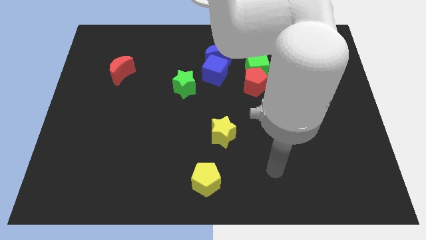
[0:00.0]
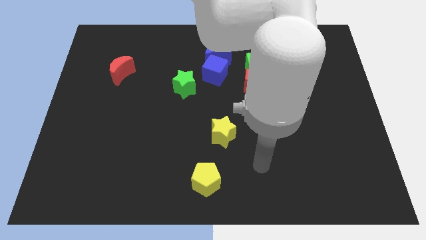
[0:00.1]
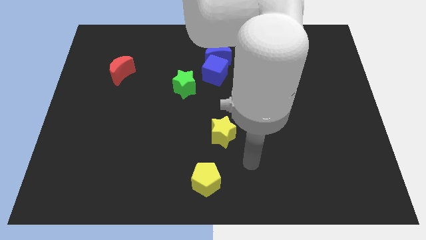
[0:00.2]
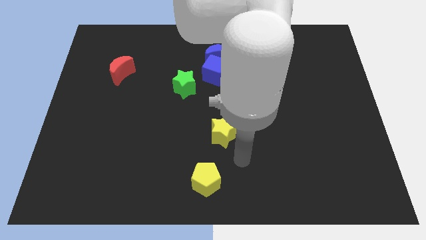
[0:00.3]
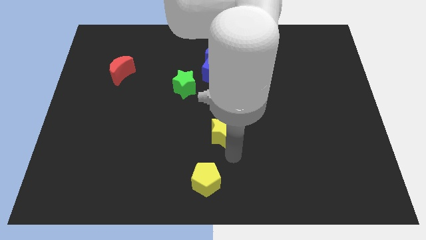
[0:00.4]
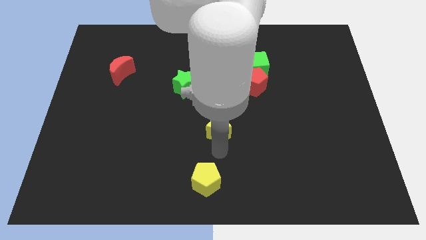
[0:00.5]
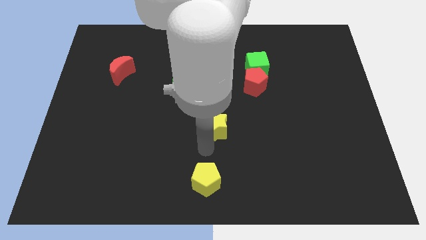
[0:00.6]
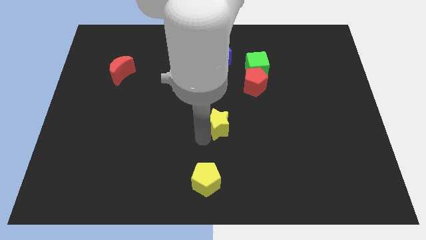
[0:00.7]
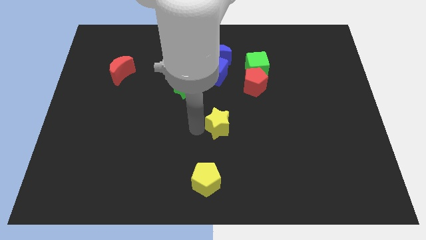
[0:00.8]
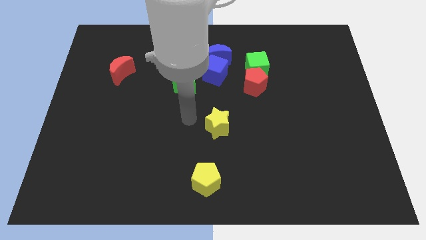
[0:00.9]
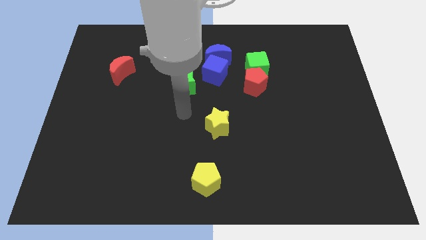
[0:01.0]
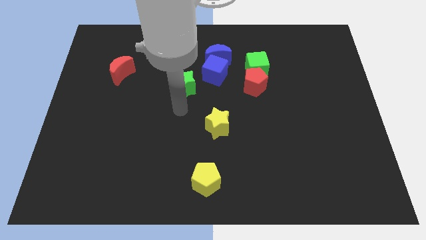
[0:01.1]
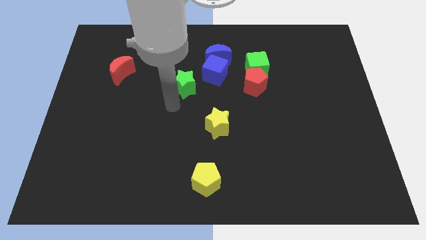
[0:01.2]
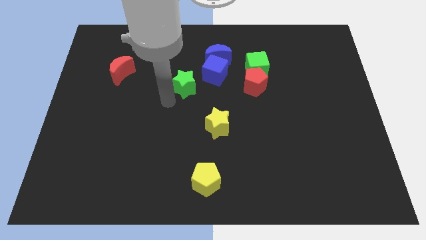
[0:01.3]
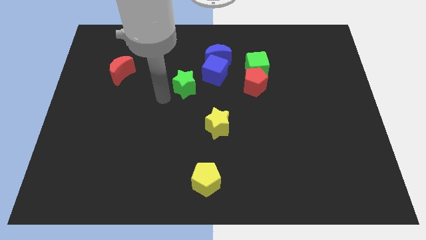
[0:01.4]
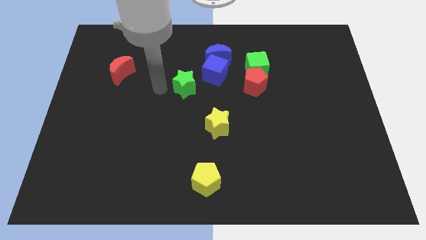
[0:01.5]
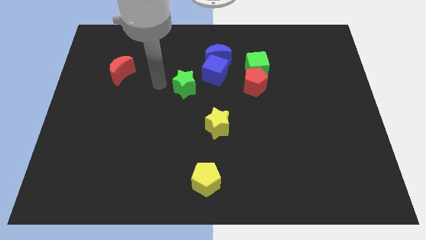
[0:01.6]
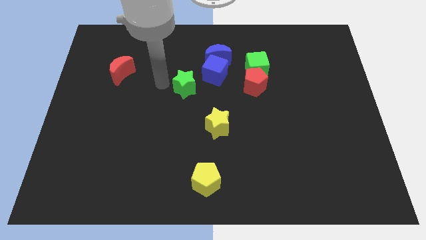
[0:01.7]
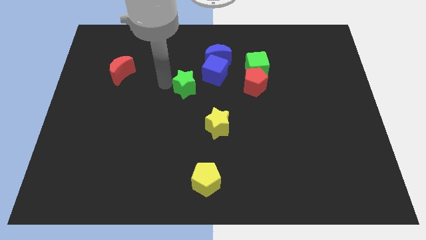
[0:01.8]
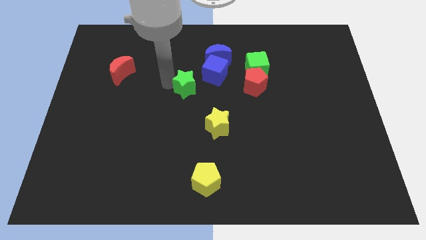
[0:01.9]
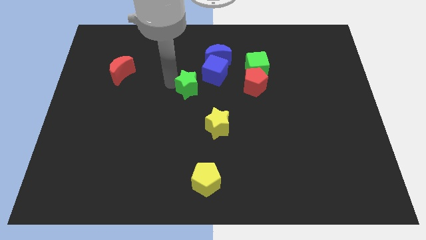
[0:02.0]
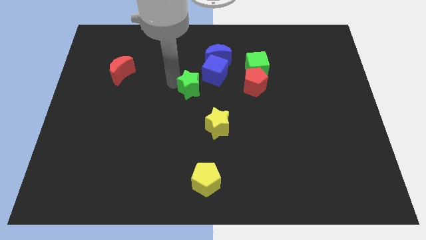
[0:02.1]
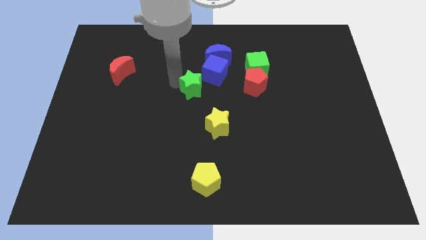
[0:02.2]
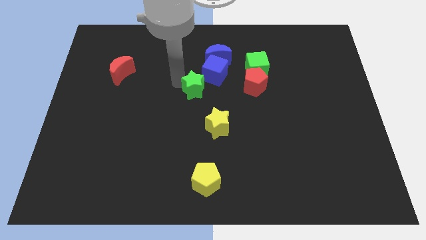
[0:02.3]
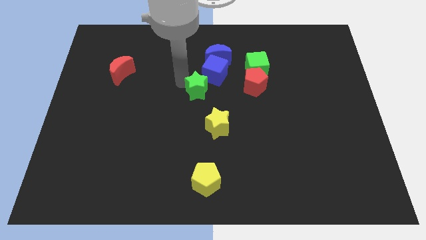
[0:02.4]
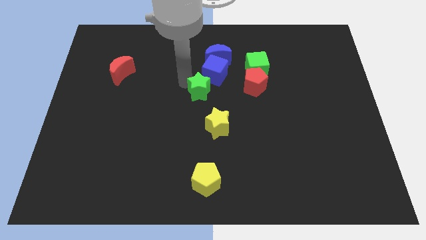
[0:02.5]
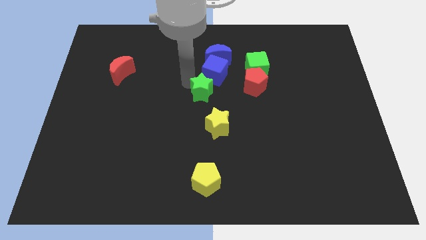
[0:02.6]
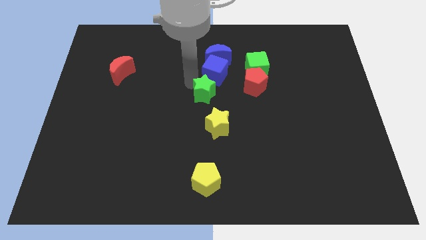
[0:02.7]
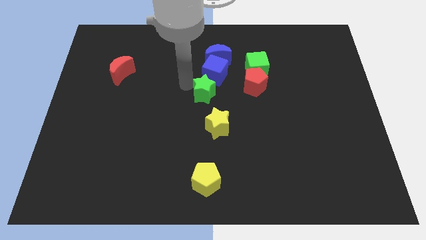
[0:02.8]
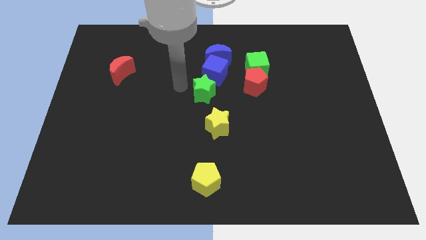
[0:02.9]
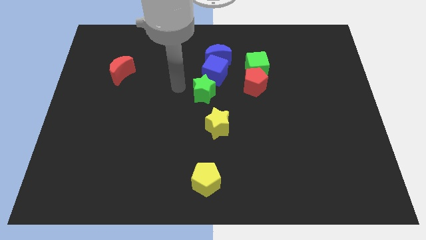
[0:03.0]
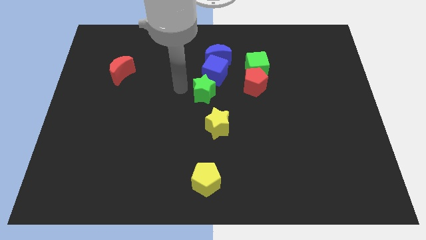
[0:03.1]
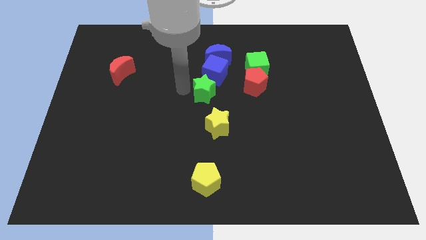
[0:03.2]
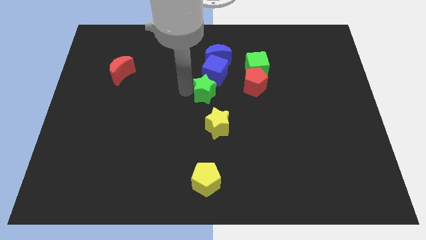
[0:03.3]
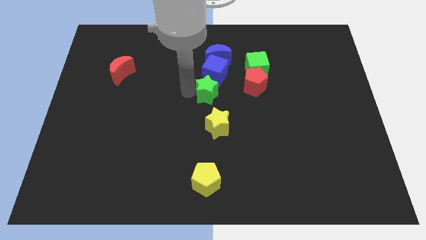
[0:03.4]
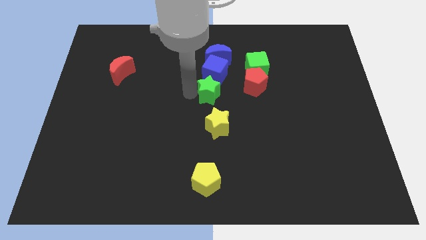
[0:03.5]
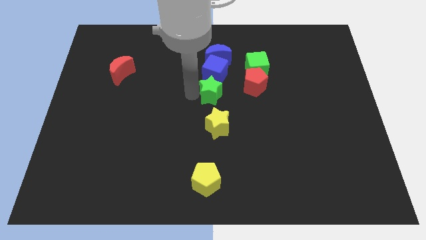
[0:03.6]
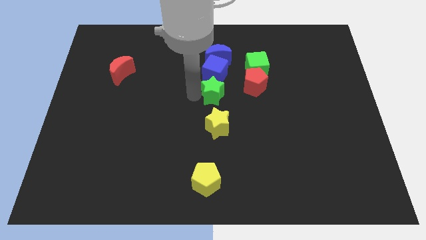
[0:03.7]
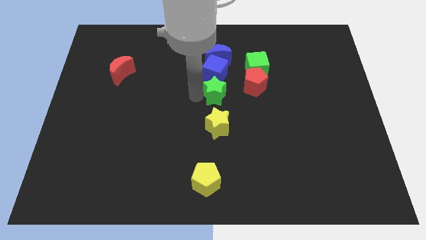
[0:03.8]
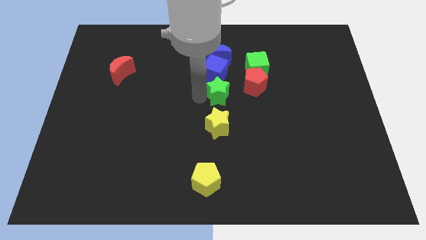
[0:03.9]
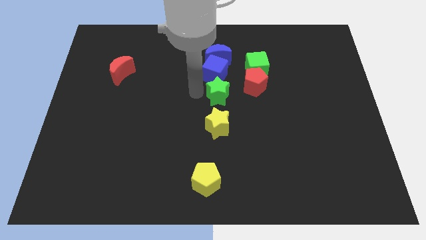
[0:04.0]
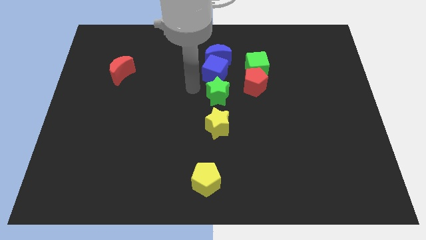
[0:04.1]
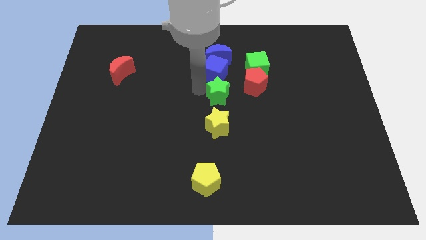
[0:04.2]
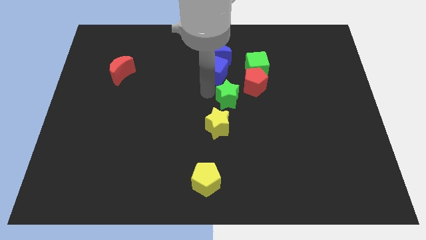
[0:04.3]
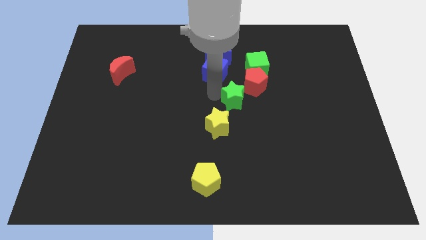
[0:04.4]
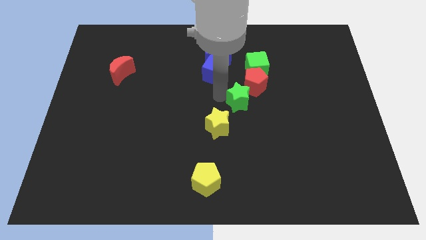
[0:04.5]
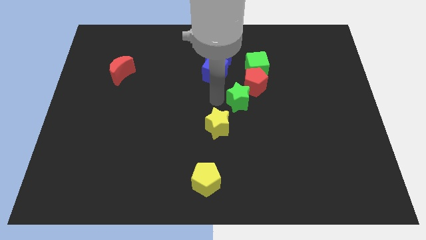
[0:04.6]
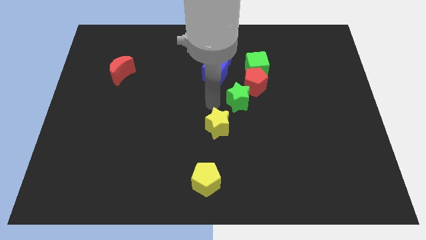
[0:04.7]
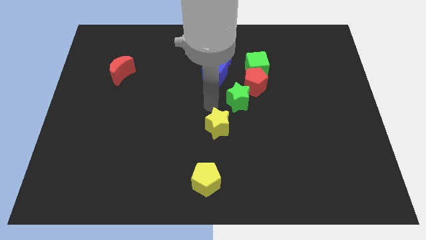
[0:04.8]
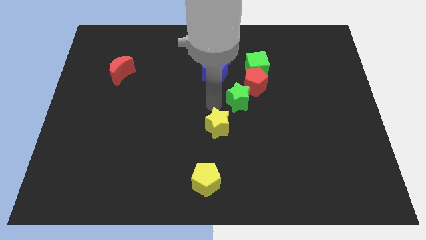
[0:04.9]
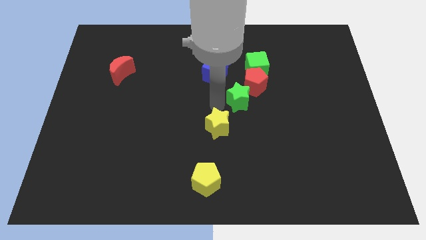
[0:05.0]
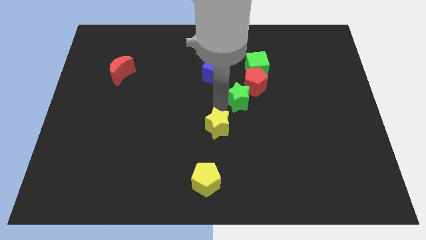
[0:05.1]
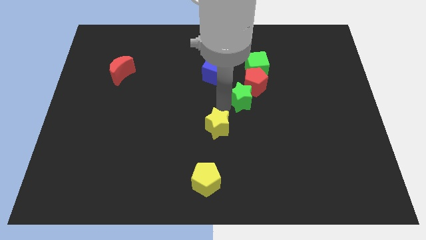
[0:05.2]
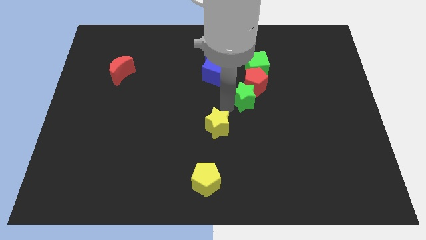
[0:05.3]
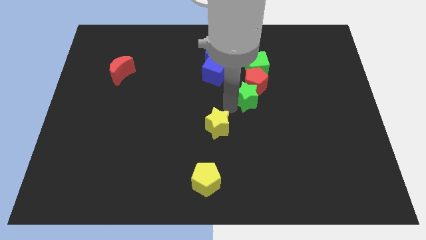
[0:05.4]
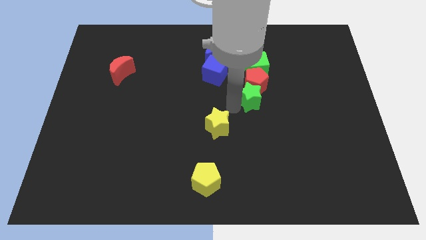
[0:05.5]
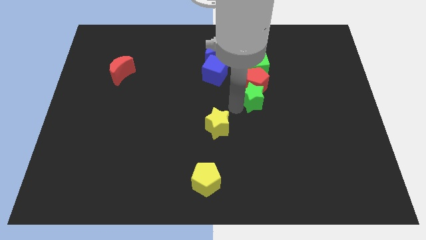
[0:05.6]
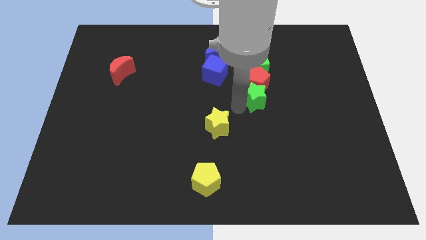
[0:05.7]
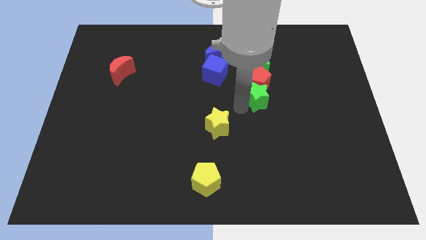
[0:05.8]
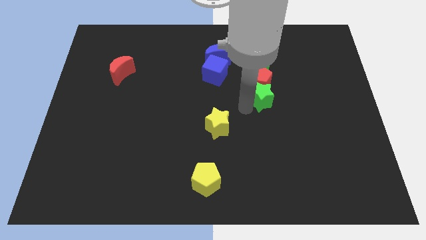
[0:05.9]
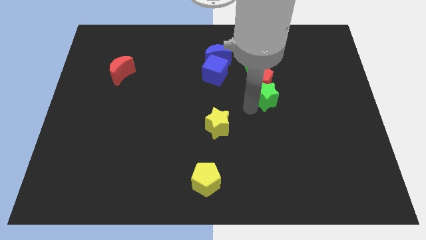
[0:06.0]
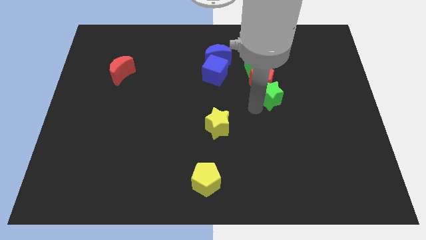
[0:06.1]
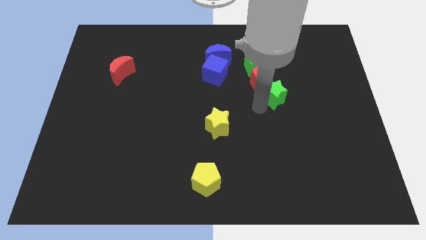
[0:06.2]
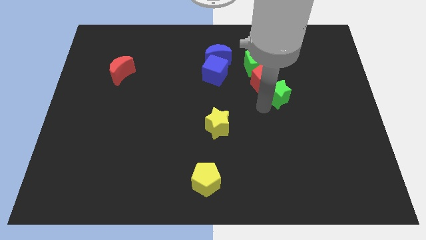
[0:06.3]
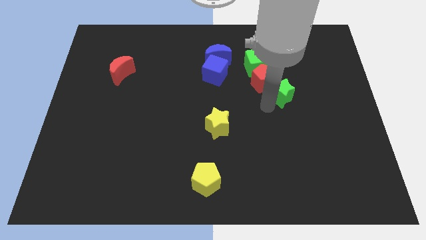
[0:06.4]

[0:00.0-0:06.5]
put the green star to the right side of the red pentagon

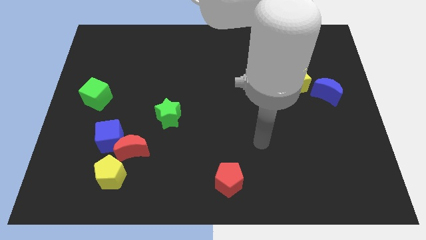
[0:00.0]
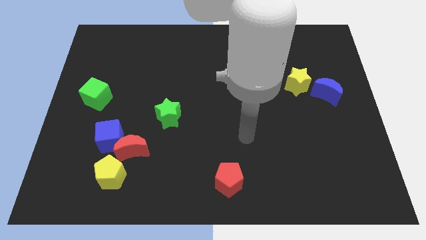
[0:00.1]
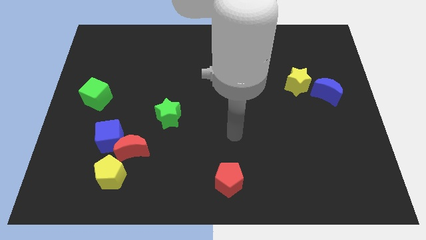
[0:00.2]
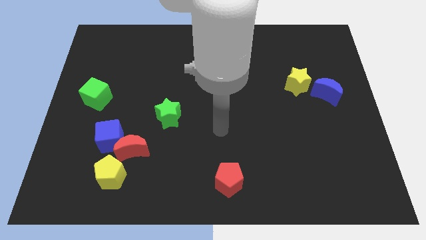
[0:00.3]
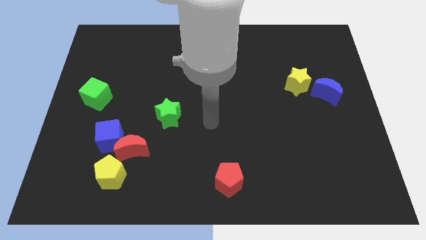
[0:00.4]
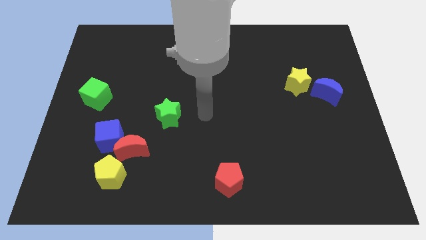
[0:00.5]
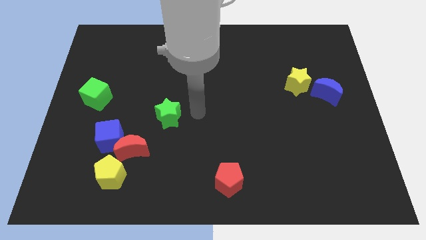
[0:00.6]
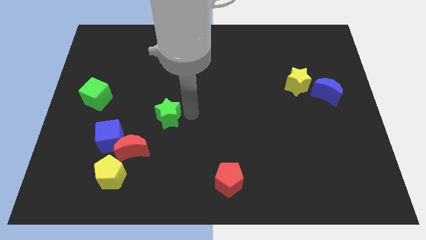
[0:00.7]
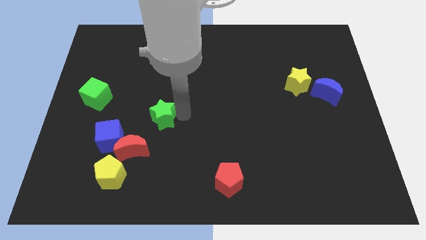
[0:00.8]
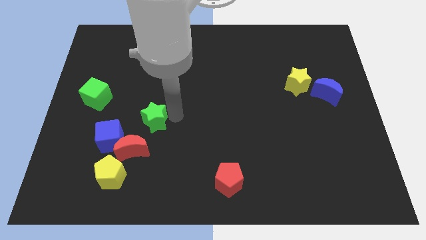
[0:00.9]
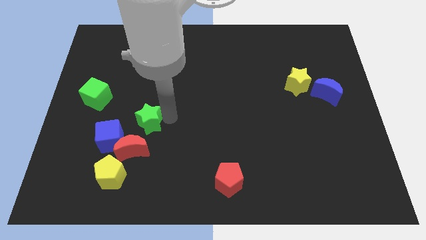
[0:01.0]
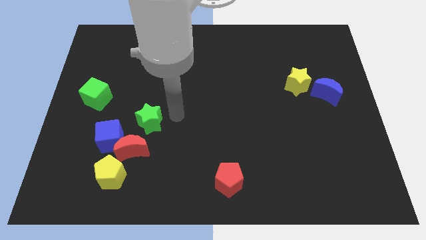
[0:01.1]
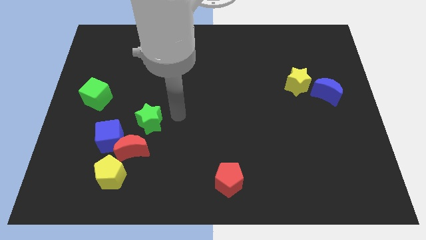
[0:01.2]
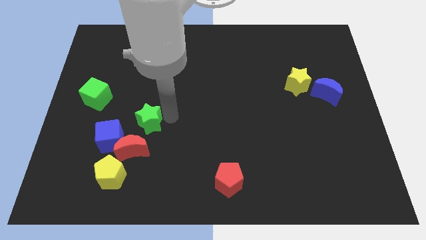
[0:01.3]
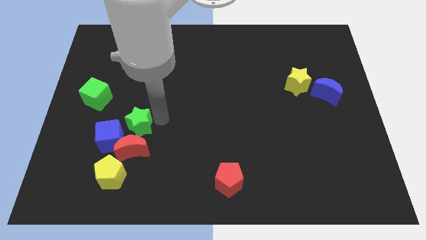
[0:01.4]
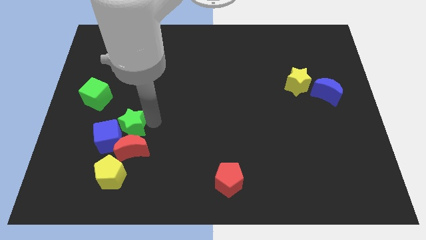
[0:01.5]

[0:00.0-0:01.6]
slide the green star diagonally up and to the left of the red moon
